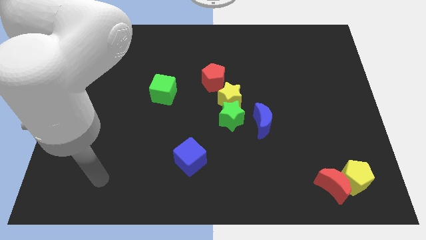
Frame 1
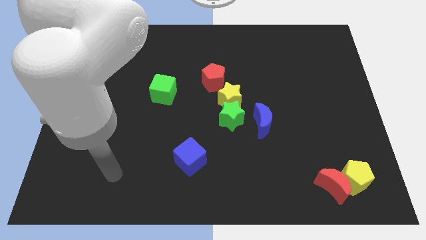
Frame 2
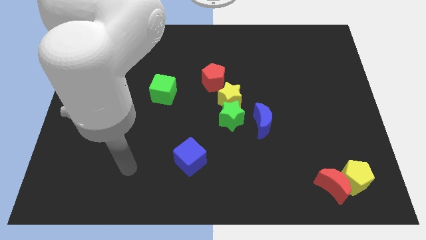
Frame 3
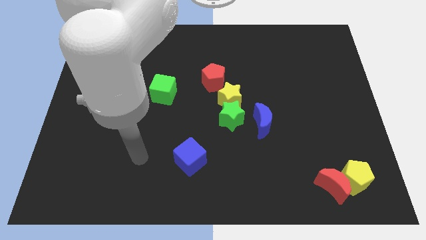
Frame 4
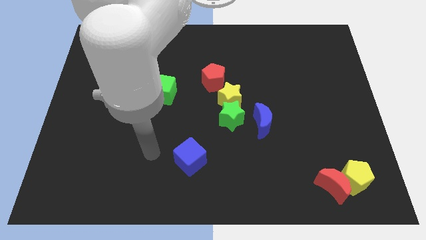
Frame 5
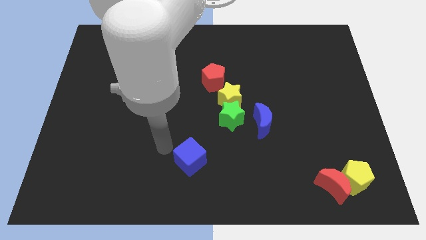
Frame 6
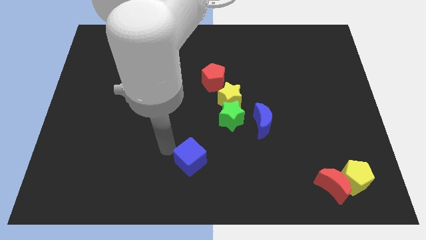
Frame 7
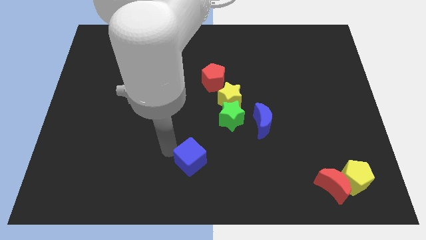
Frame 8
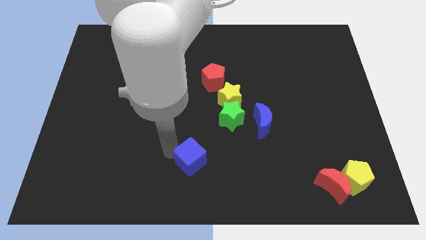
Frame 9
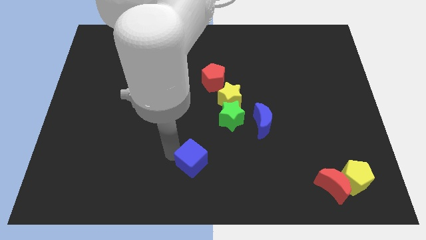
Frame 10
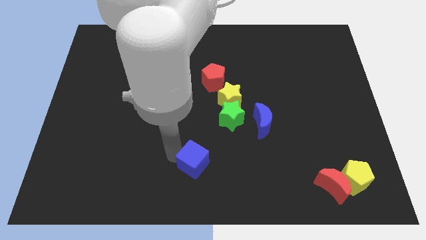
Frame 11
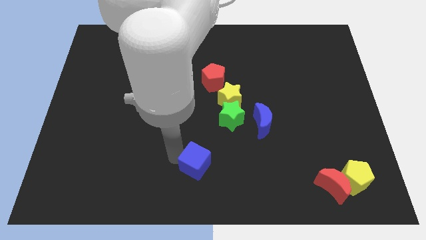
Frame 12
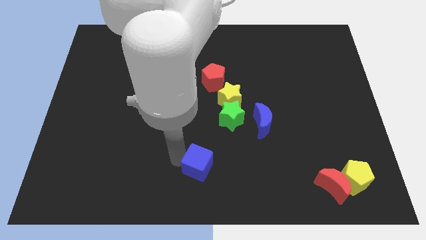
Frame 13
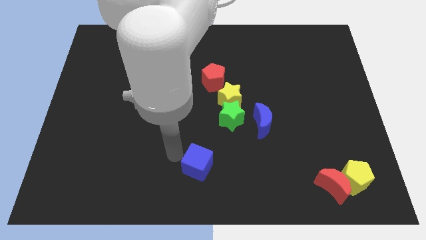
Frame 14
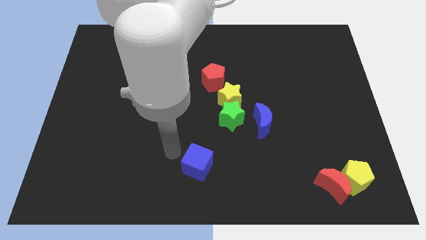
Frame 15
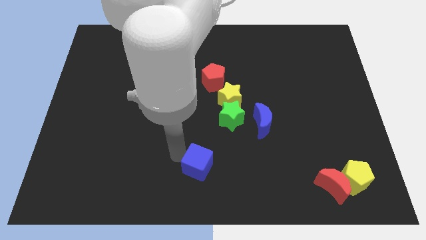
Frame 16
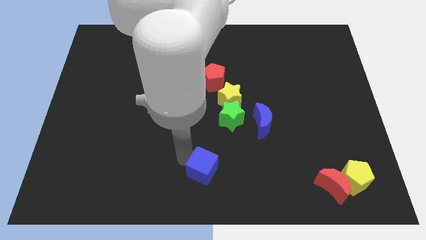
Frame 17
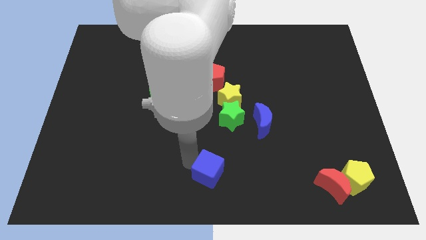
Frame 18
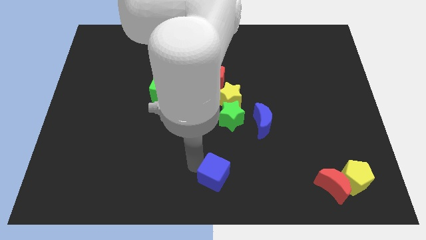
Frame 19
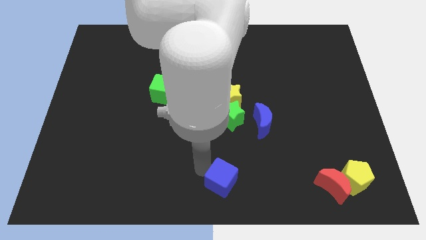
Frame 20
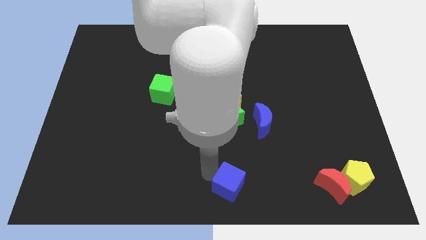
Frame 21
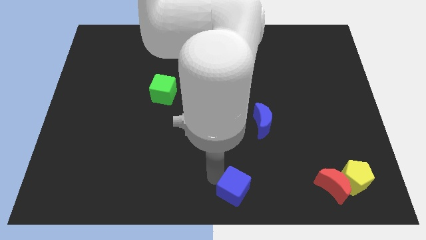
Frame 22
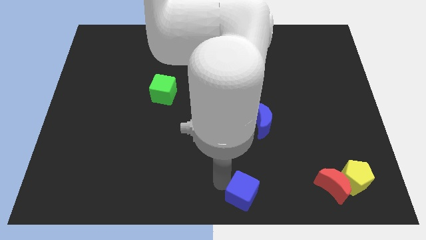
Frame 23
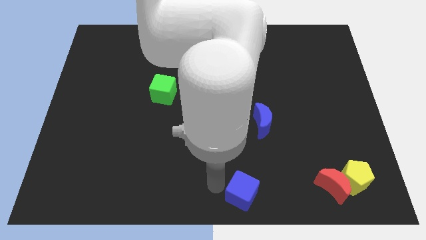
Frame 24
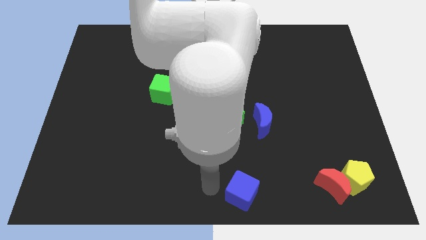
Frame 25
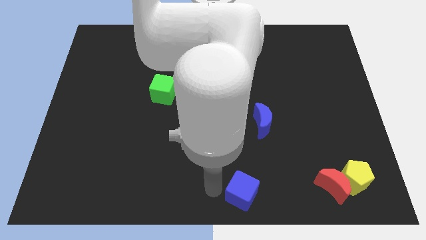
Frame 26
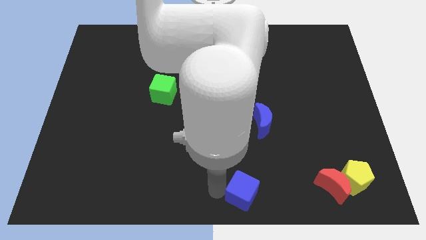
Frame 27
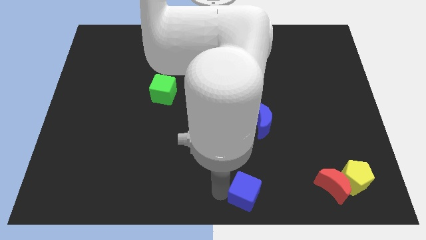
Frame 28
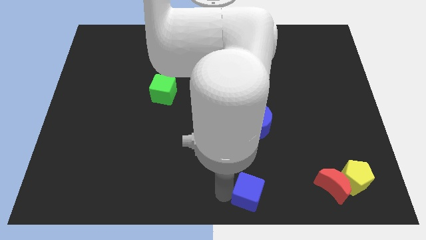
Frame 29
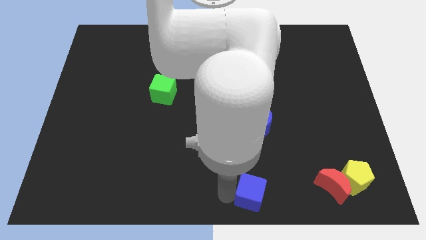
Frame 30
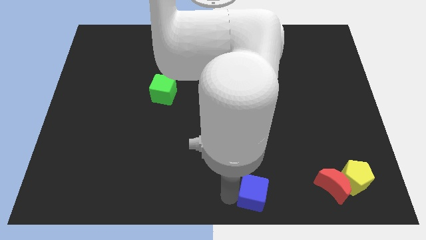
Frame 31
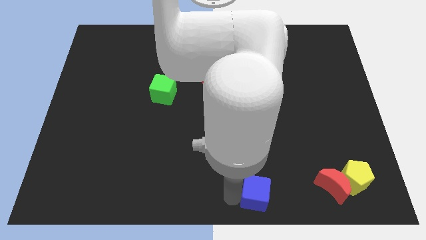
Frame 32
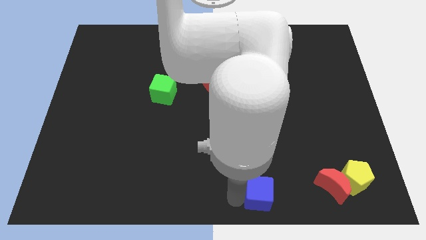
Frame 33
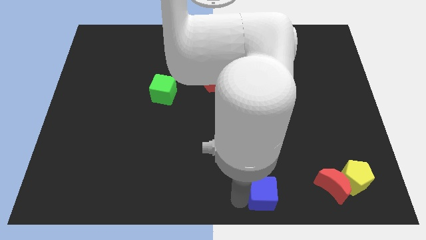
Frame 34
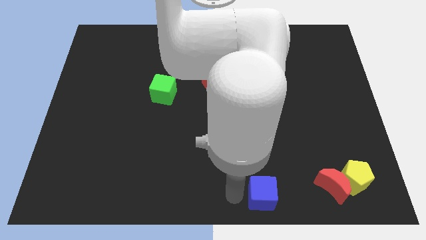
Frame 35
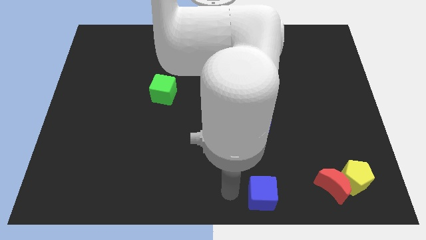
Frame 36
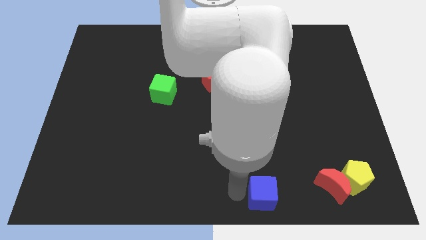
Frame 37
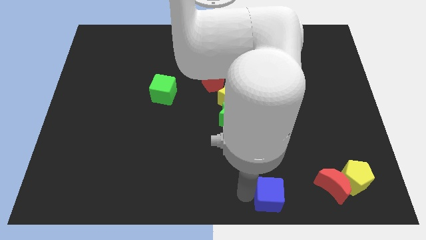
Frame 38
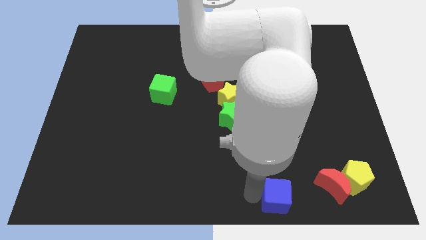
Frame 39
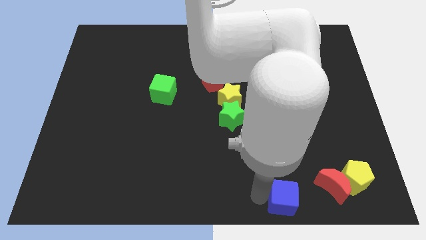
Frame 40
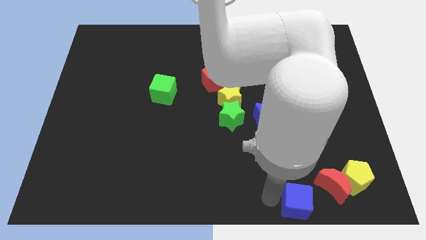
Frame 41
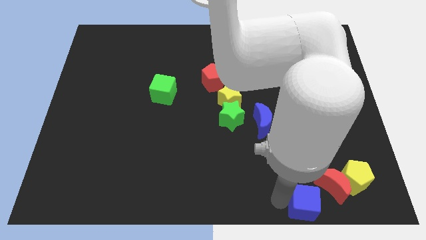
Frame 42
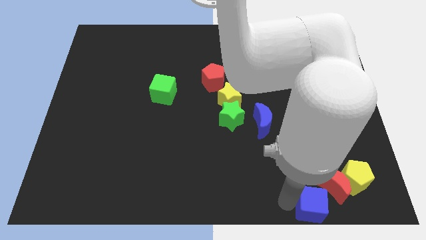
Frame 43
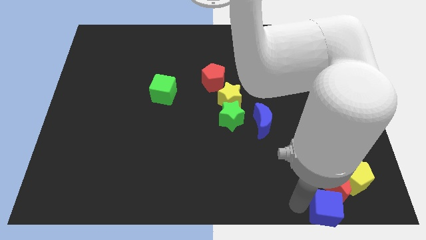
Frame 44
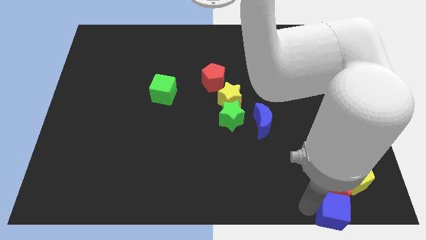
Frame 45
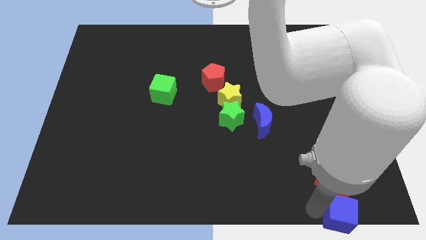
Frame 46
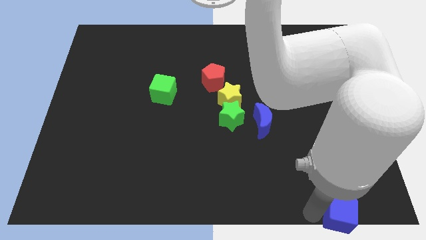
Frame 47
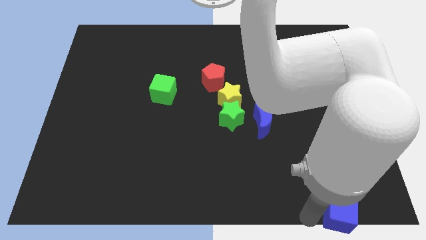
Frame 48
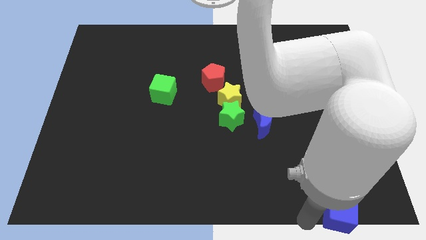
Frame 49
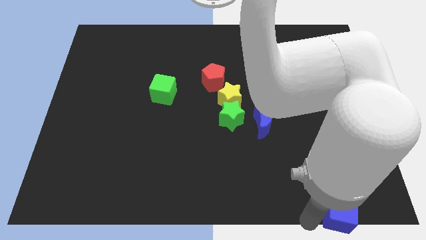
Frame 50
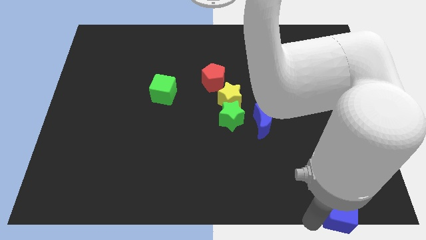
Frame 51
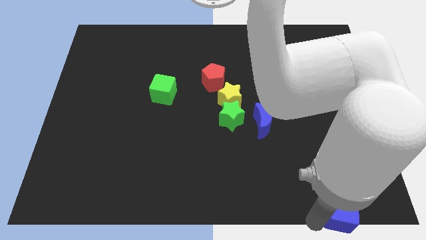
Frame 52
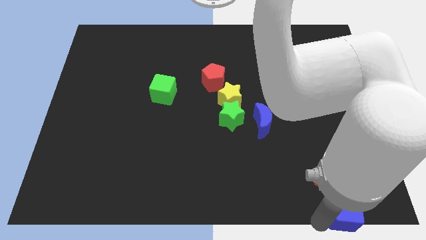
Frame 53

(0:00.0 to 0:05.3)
push the blue cube to the bottom right

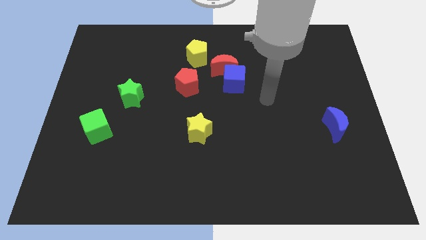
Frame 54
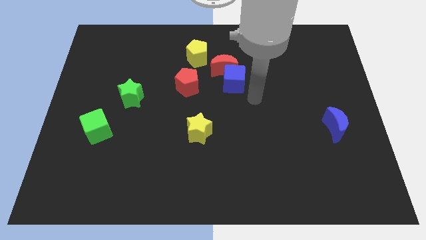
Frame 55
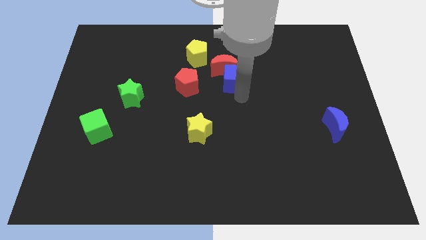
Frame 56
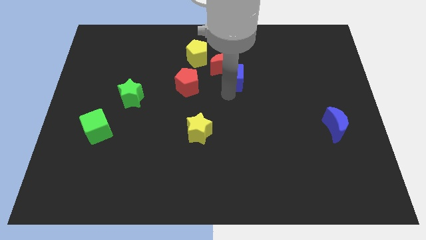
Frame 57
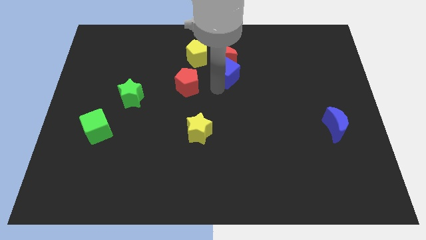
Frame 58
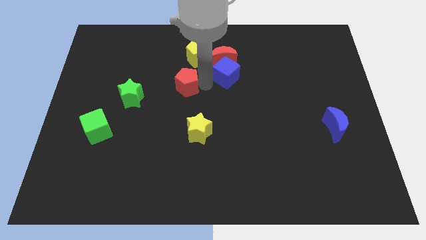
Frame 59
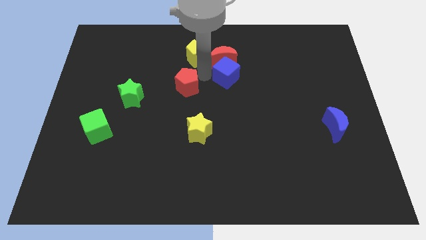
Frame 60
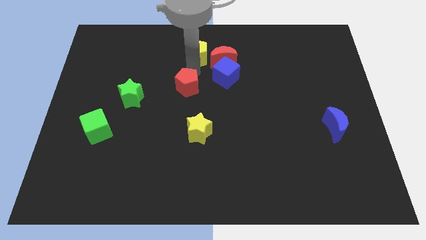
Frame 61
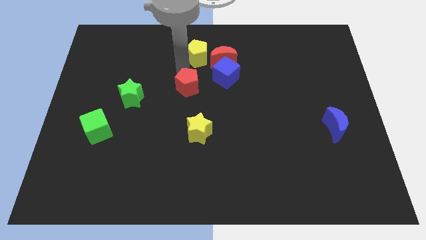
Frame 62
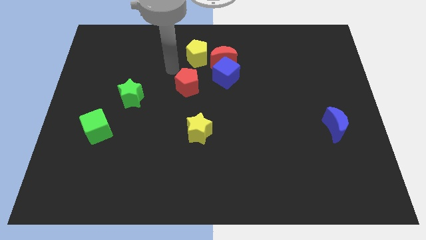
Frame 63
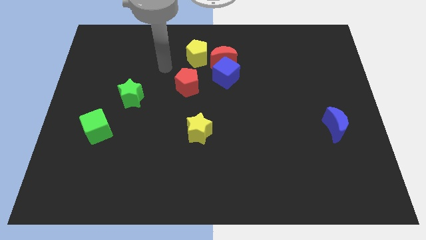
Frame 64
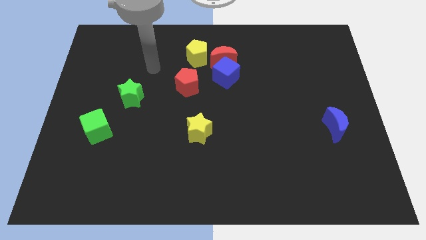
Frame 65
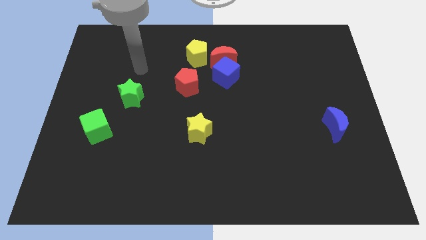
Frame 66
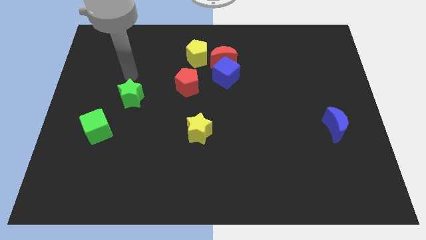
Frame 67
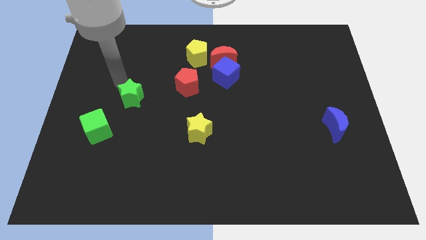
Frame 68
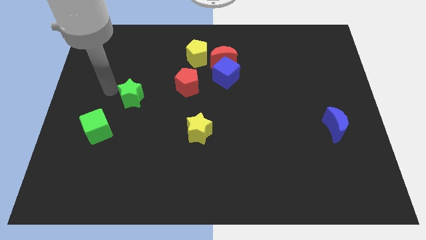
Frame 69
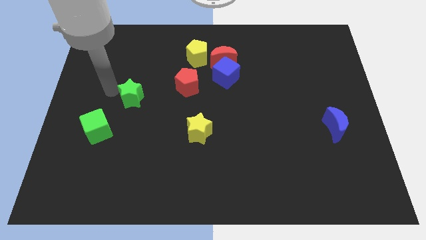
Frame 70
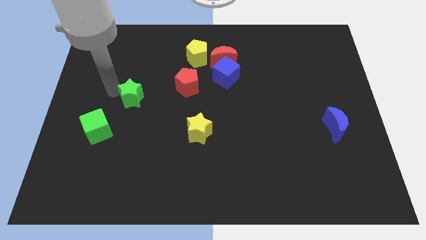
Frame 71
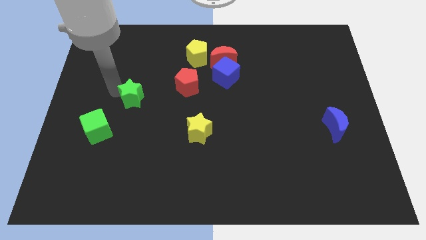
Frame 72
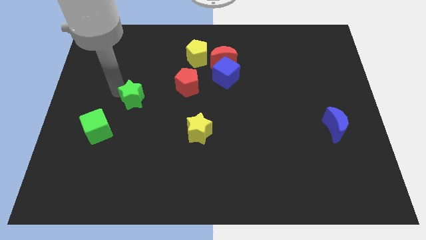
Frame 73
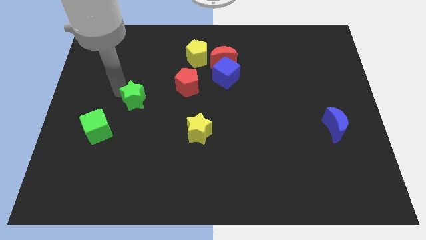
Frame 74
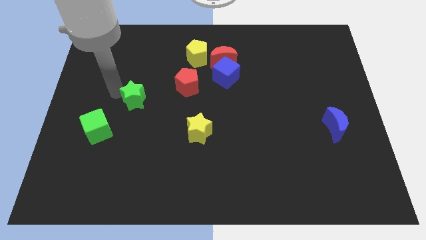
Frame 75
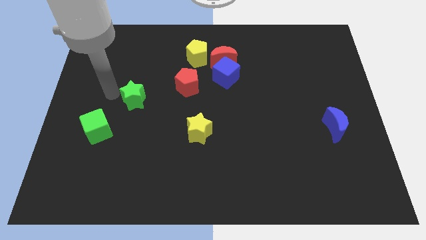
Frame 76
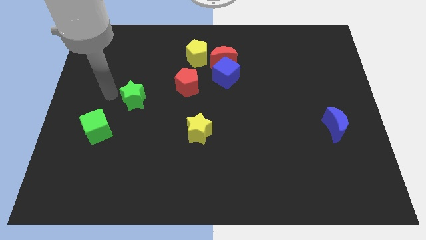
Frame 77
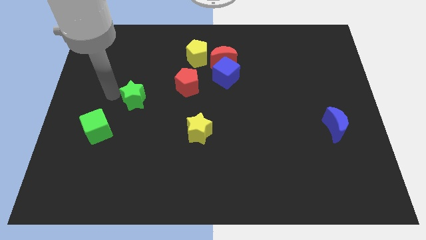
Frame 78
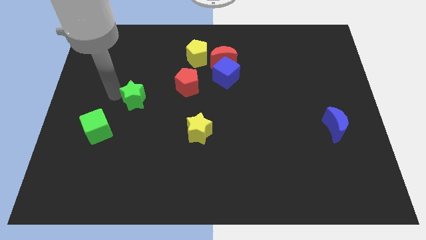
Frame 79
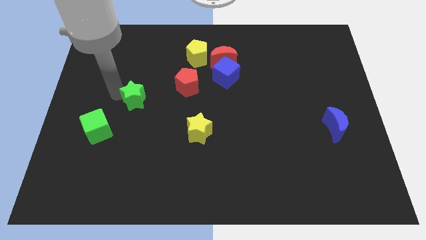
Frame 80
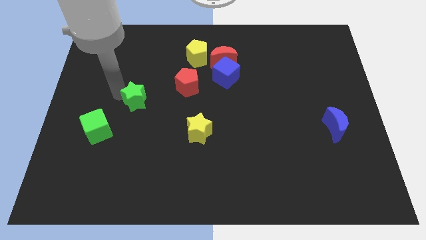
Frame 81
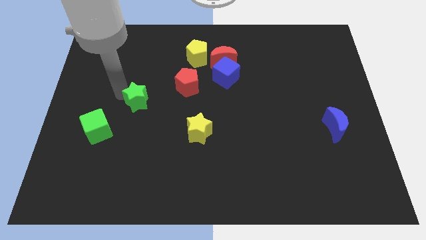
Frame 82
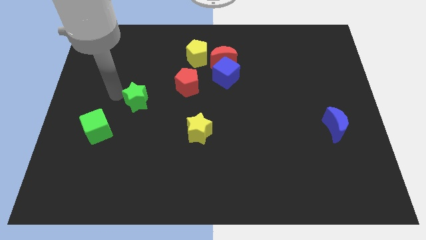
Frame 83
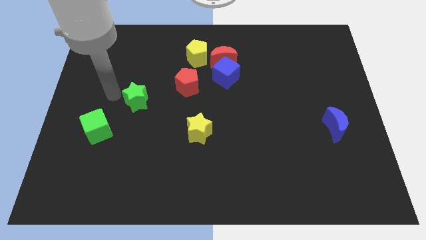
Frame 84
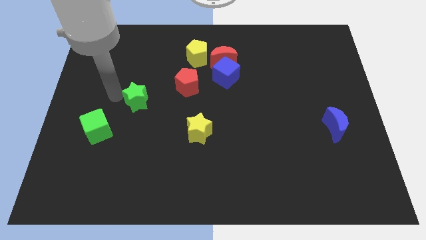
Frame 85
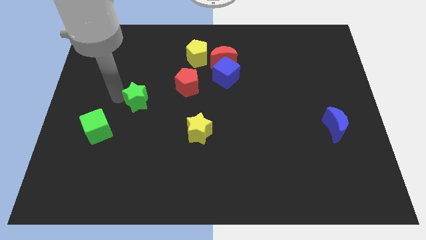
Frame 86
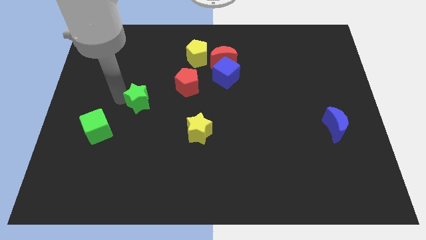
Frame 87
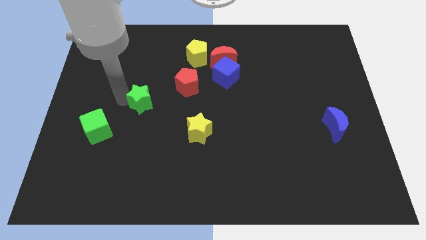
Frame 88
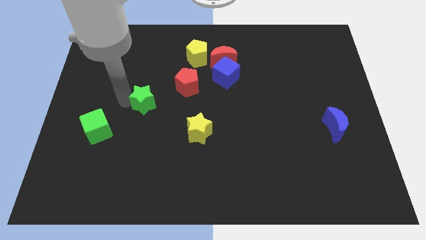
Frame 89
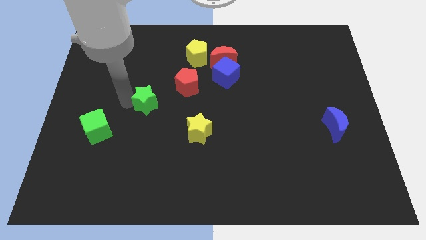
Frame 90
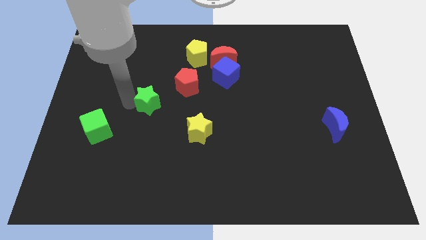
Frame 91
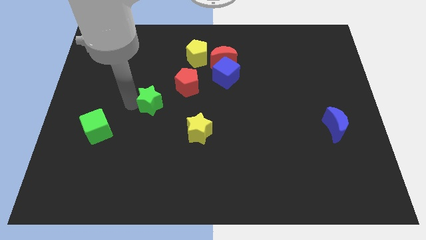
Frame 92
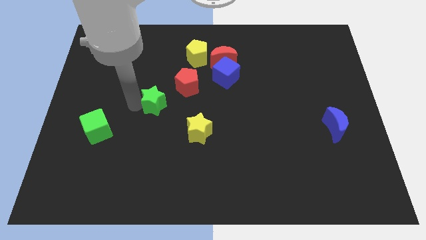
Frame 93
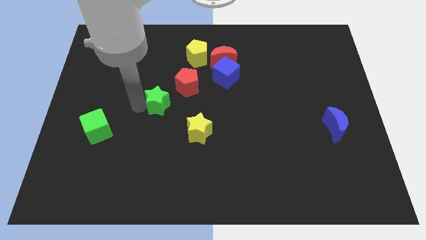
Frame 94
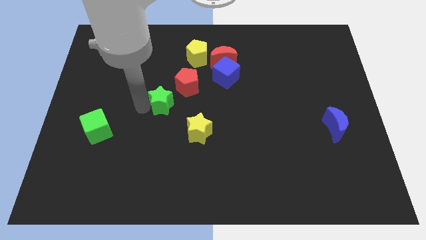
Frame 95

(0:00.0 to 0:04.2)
push the green star to the middle of the board
